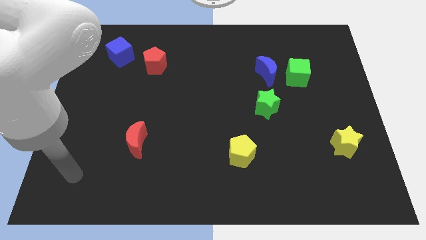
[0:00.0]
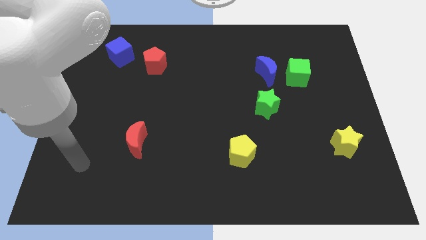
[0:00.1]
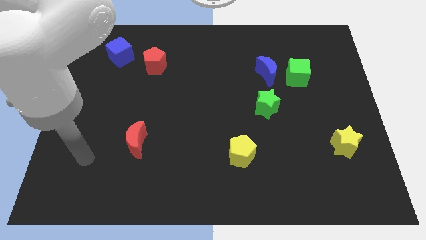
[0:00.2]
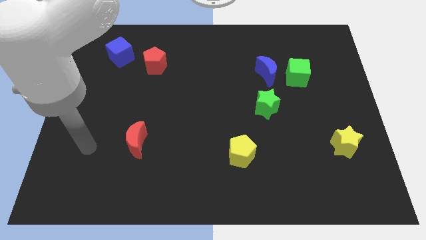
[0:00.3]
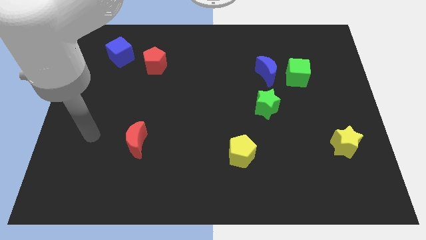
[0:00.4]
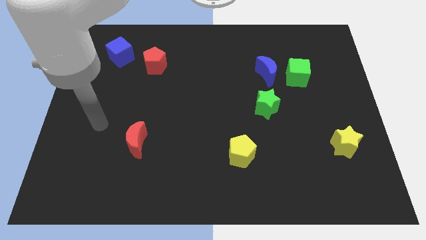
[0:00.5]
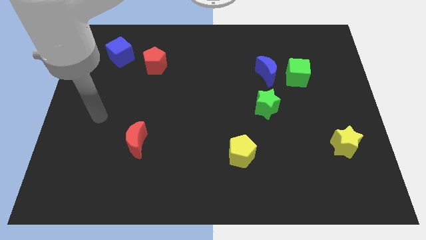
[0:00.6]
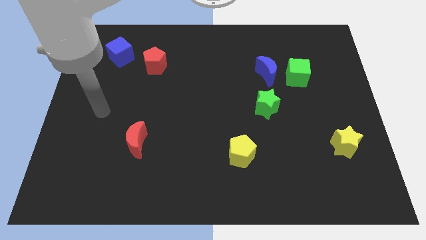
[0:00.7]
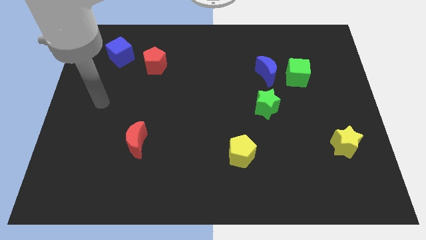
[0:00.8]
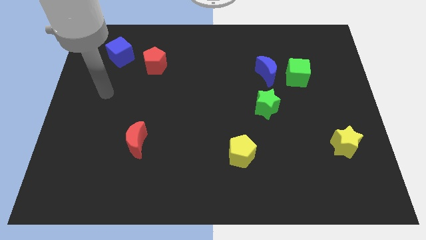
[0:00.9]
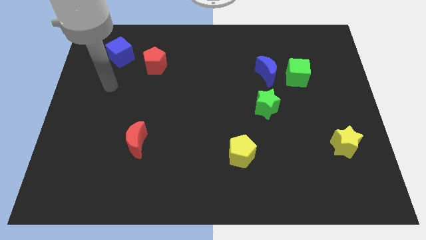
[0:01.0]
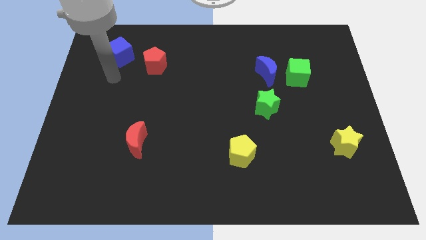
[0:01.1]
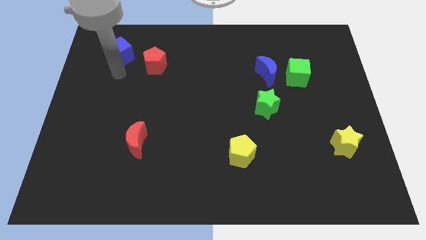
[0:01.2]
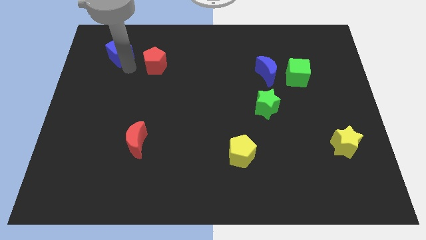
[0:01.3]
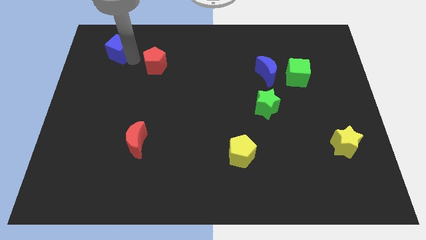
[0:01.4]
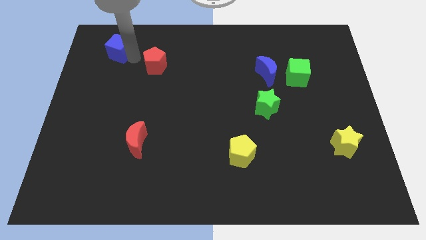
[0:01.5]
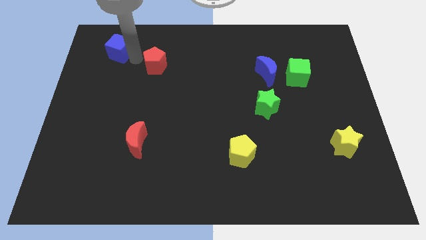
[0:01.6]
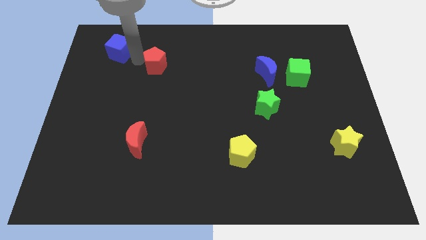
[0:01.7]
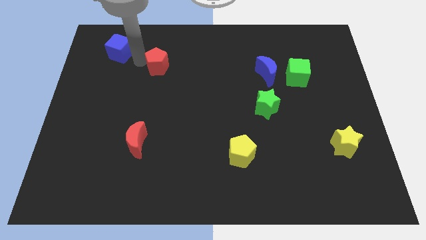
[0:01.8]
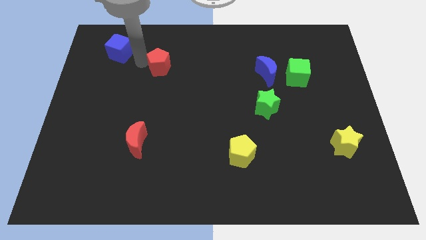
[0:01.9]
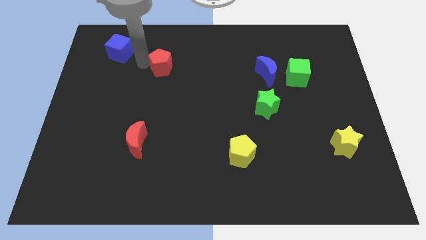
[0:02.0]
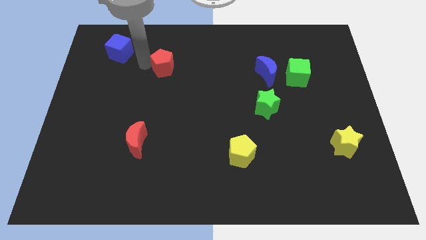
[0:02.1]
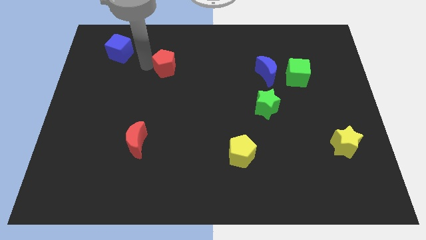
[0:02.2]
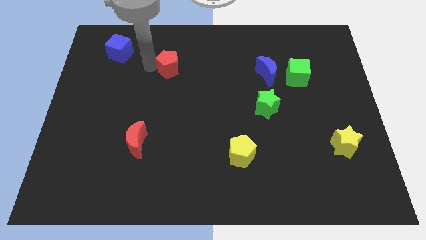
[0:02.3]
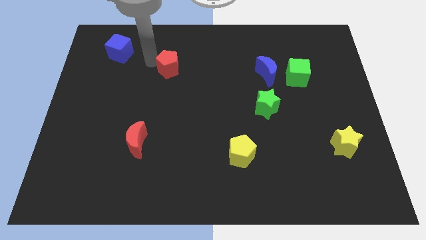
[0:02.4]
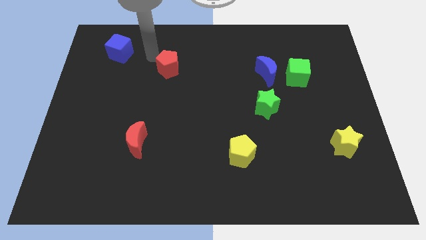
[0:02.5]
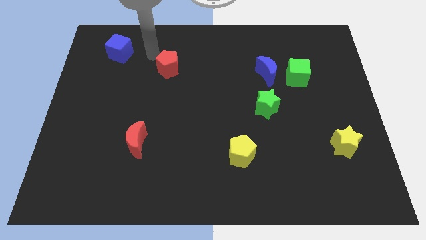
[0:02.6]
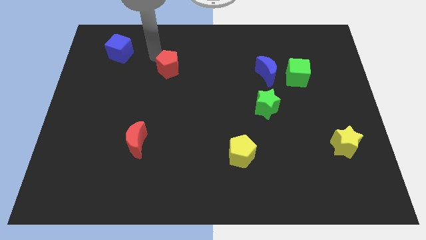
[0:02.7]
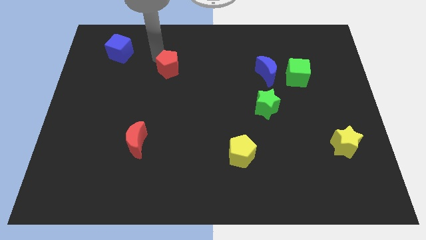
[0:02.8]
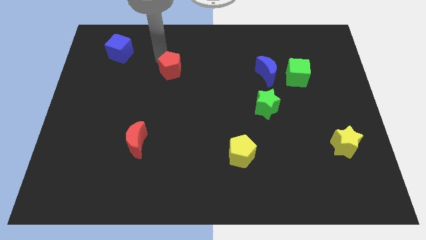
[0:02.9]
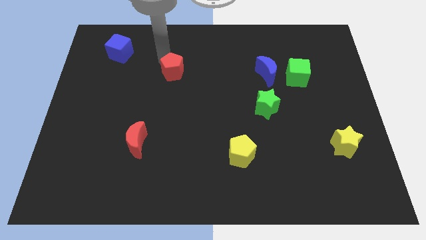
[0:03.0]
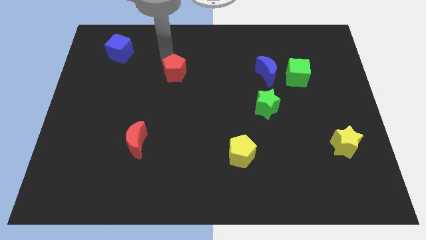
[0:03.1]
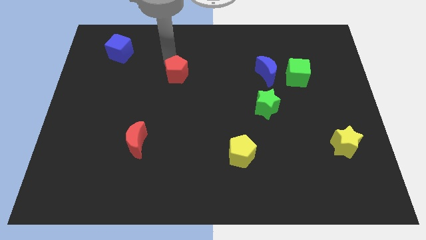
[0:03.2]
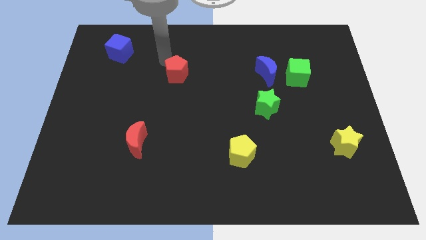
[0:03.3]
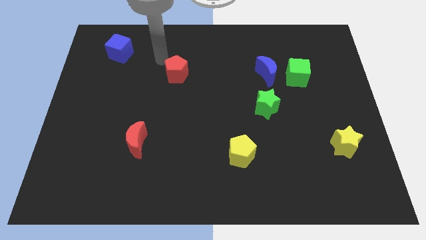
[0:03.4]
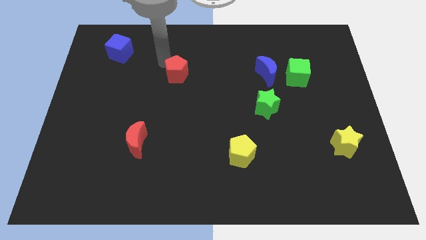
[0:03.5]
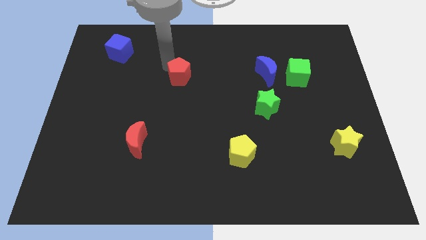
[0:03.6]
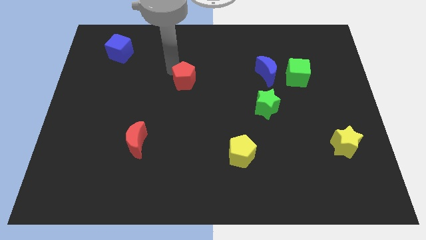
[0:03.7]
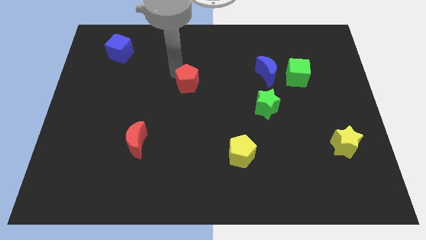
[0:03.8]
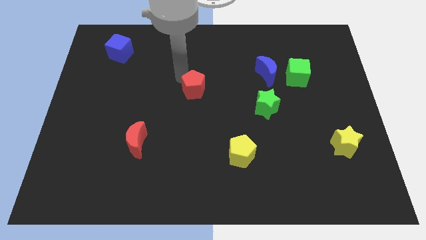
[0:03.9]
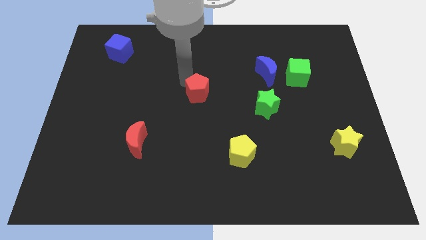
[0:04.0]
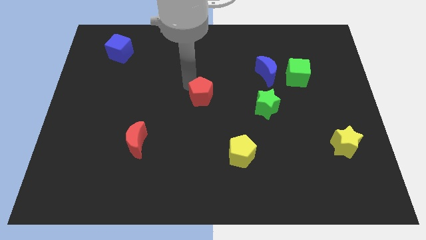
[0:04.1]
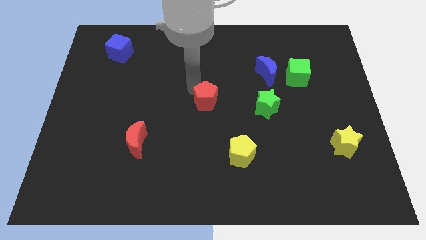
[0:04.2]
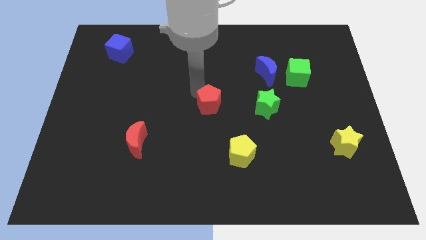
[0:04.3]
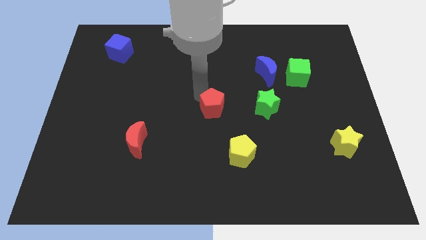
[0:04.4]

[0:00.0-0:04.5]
push the red pentagon down and right diagonally

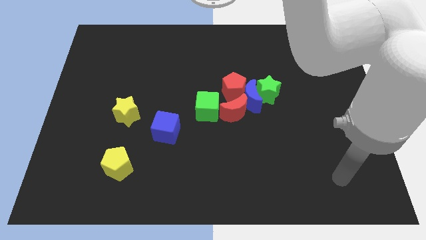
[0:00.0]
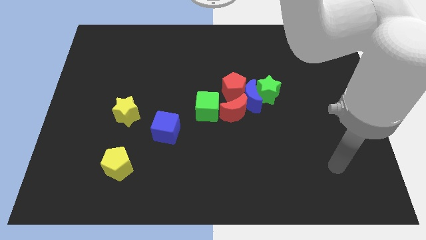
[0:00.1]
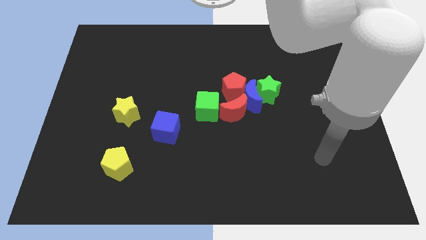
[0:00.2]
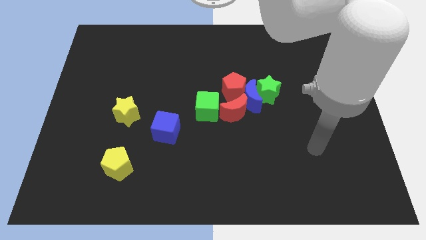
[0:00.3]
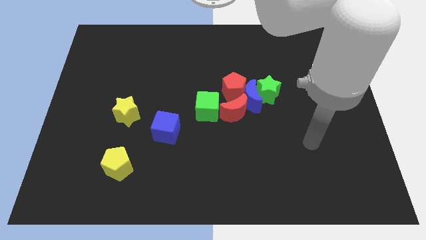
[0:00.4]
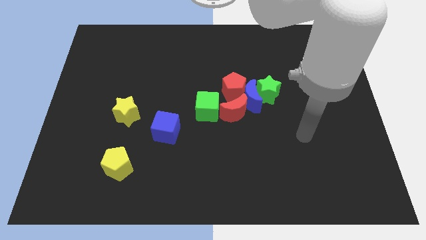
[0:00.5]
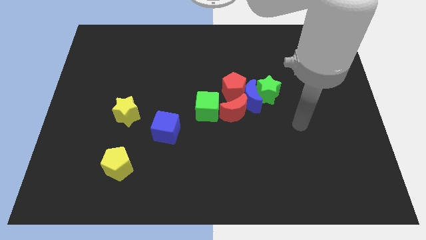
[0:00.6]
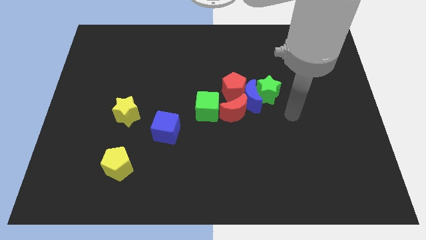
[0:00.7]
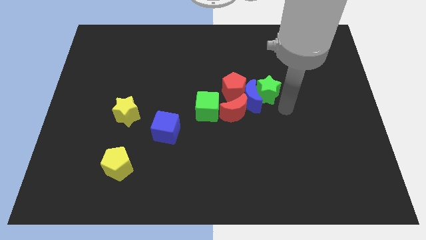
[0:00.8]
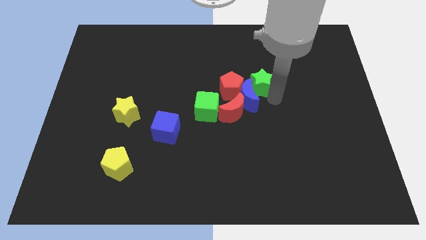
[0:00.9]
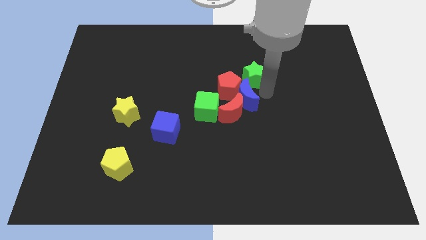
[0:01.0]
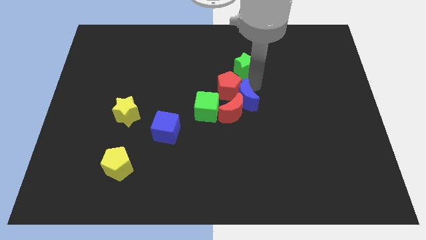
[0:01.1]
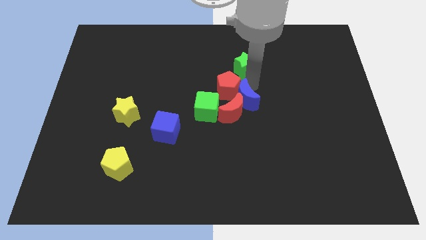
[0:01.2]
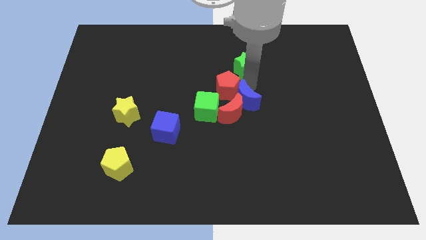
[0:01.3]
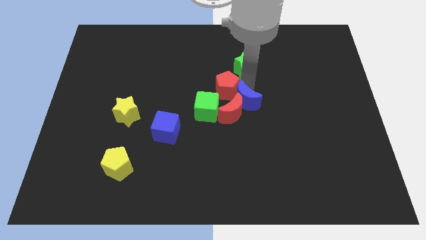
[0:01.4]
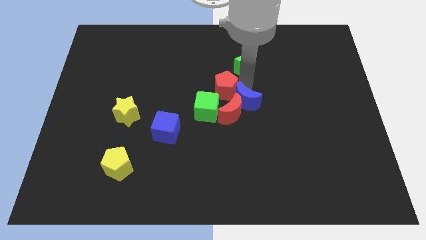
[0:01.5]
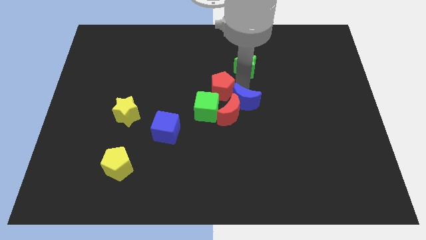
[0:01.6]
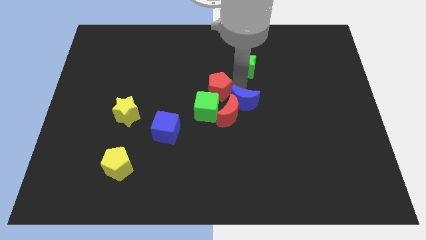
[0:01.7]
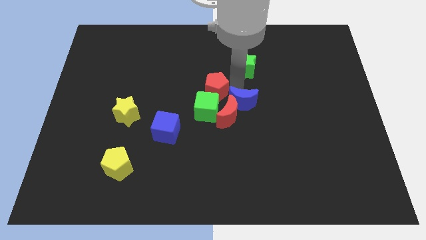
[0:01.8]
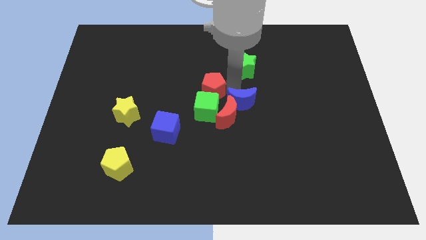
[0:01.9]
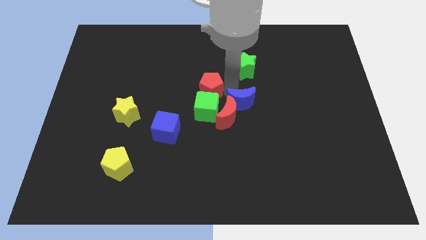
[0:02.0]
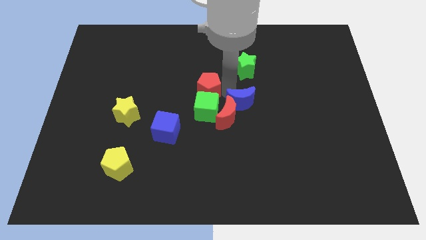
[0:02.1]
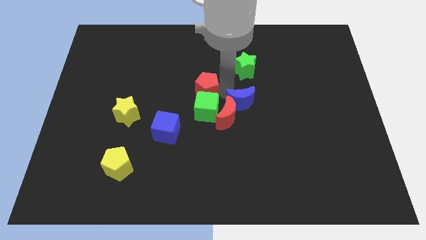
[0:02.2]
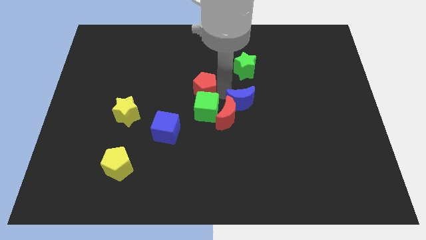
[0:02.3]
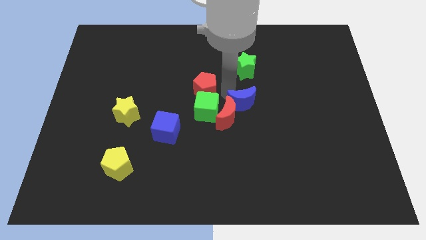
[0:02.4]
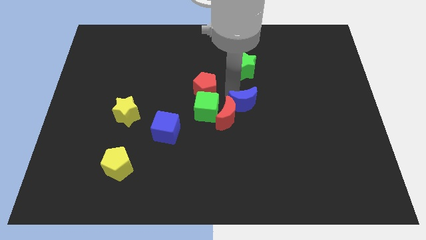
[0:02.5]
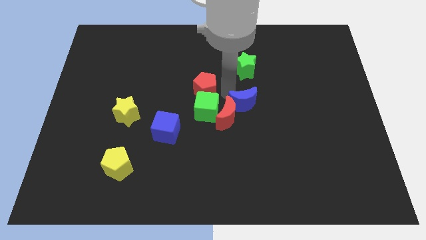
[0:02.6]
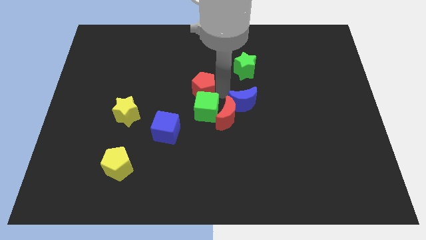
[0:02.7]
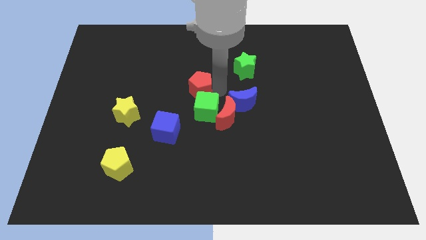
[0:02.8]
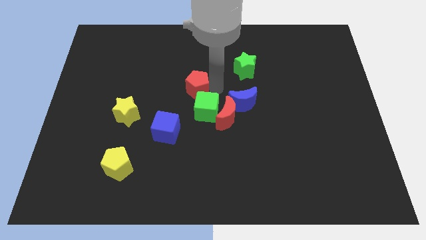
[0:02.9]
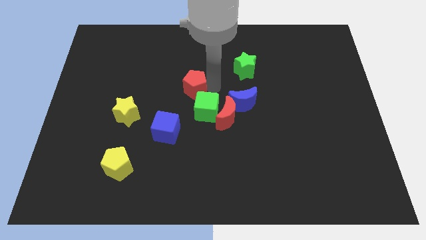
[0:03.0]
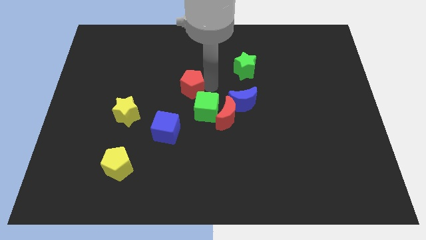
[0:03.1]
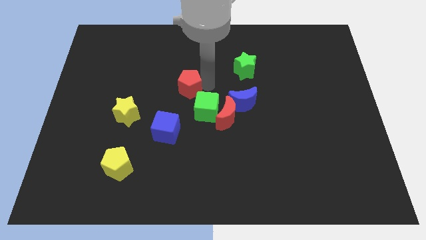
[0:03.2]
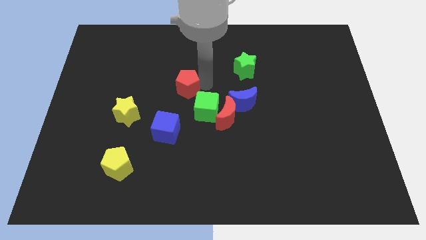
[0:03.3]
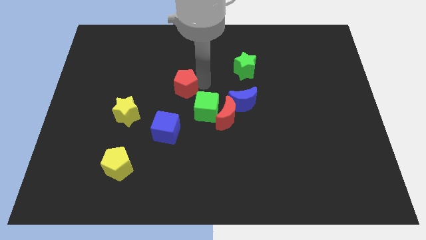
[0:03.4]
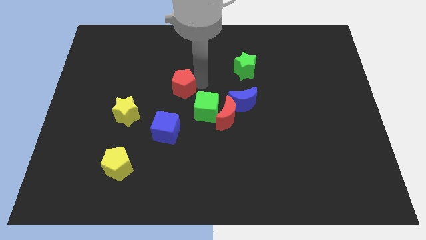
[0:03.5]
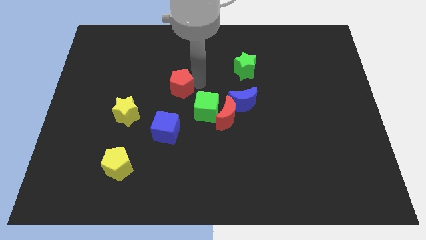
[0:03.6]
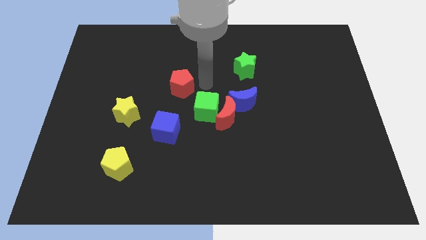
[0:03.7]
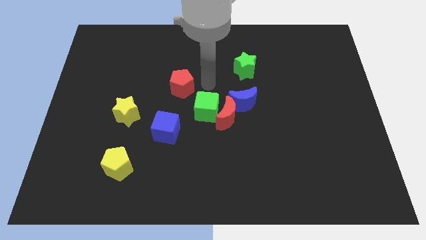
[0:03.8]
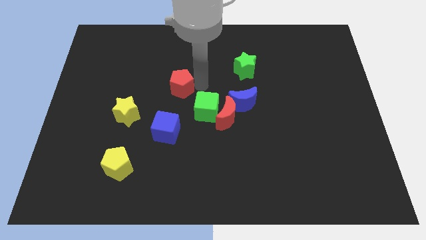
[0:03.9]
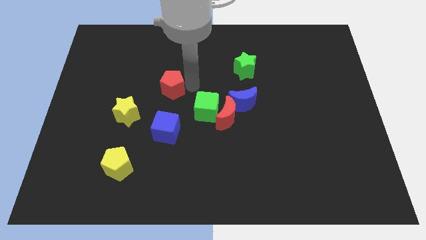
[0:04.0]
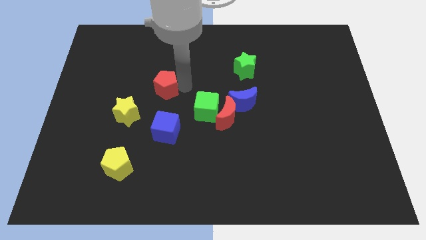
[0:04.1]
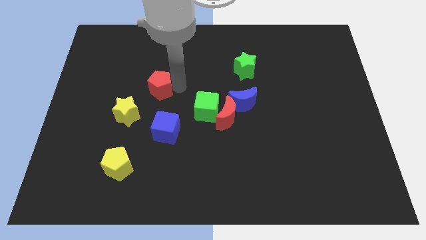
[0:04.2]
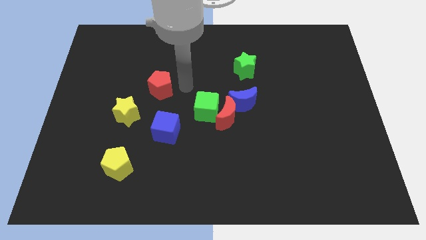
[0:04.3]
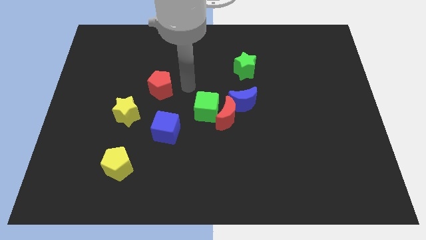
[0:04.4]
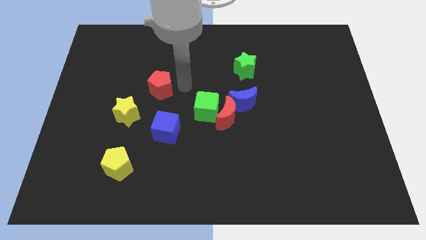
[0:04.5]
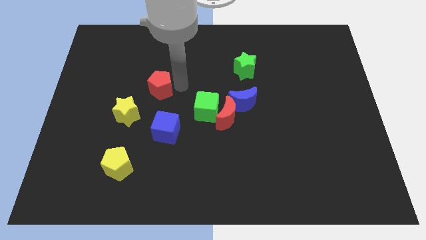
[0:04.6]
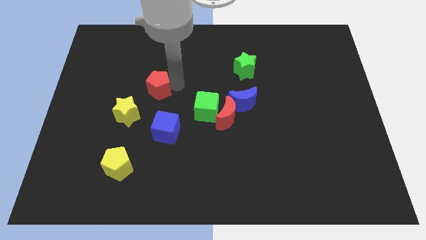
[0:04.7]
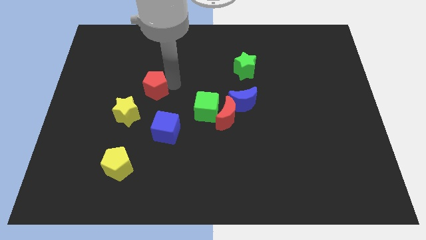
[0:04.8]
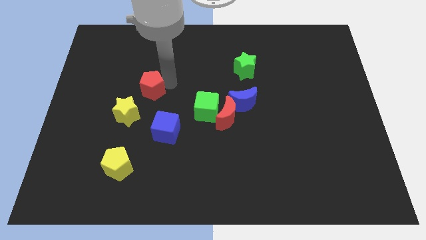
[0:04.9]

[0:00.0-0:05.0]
push the red pentagon to the left
